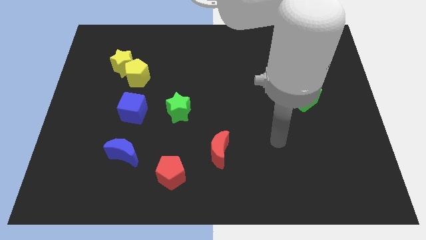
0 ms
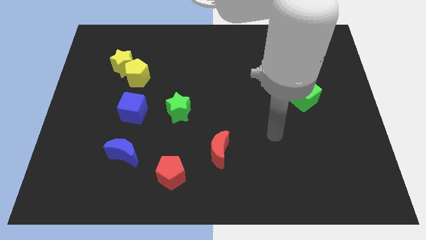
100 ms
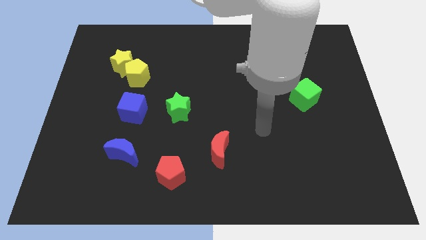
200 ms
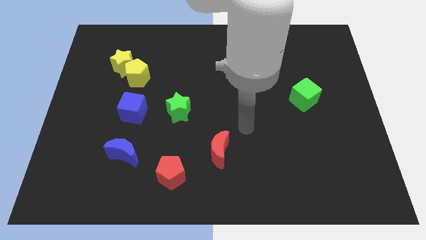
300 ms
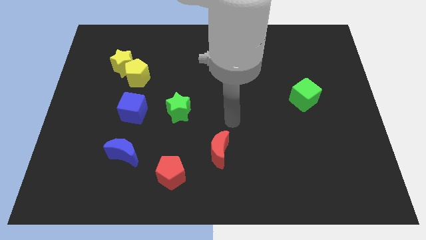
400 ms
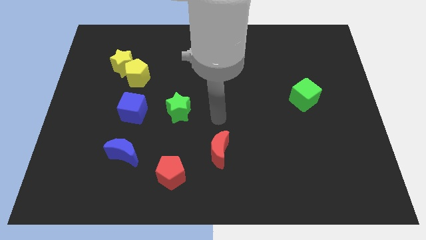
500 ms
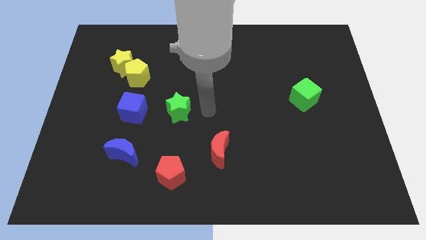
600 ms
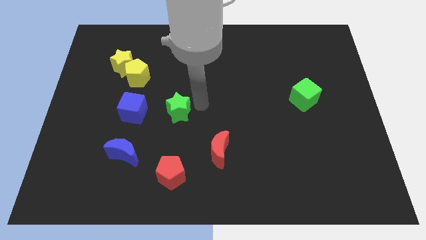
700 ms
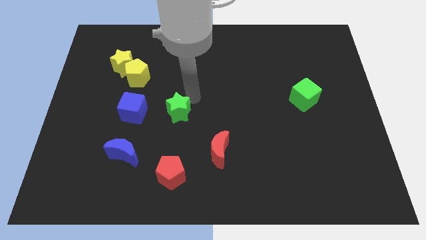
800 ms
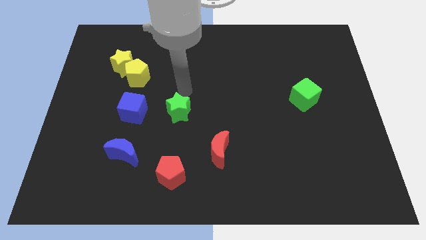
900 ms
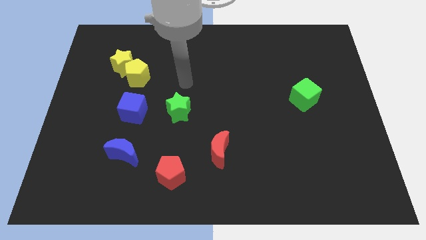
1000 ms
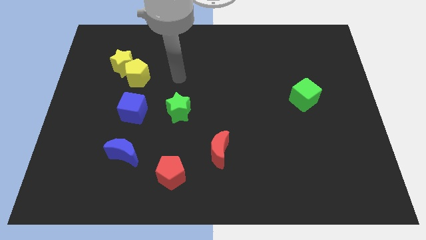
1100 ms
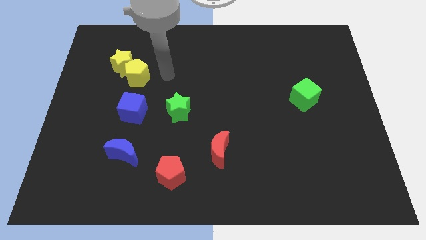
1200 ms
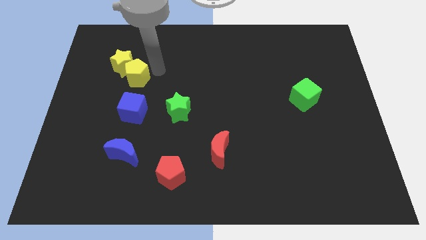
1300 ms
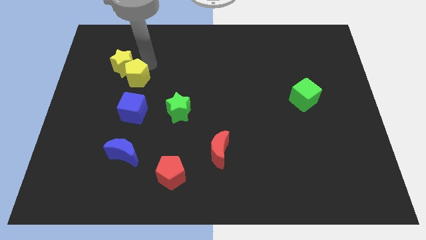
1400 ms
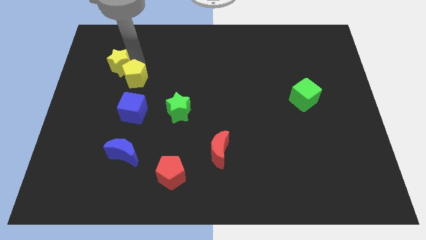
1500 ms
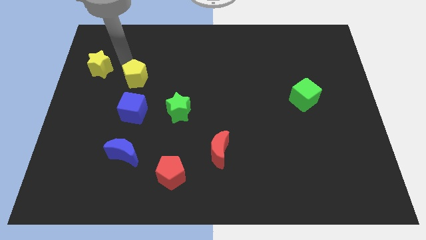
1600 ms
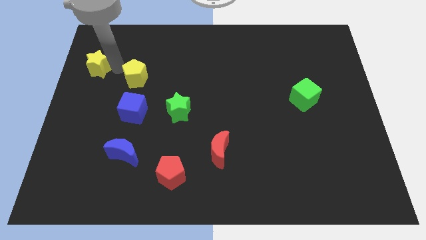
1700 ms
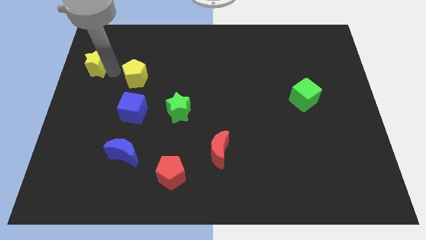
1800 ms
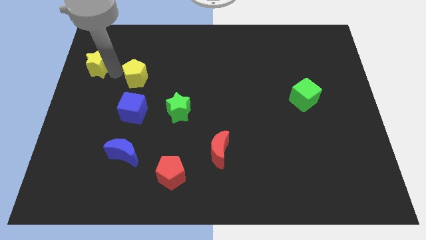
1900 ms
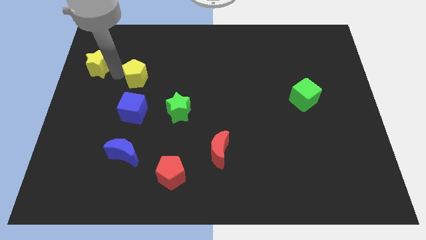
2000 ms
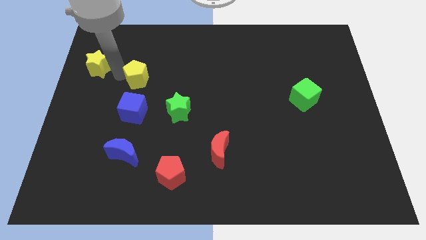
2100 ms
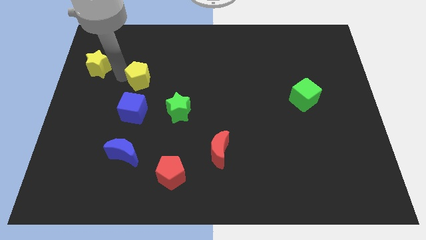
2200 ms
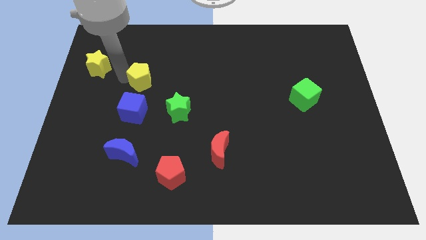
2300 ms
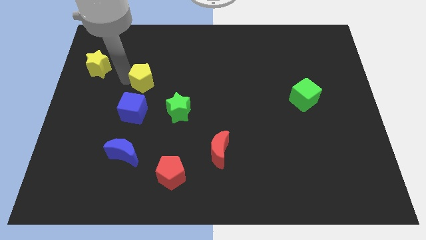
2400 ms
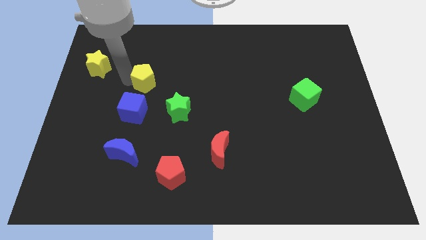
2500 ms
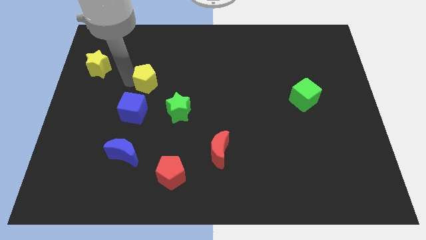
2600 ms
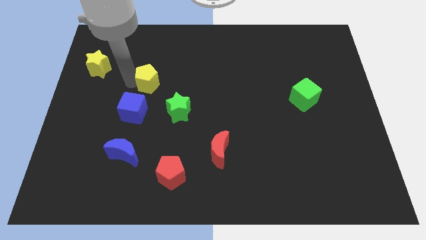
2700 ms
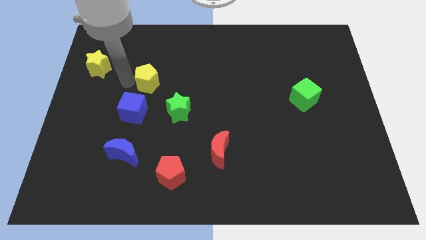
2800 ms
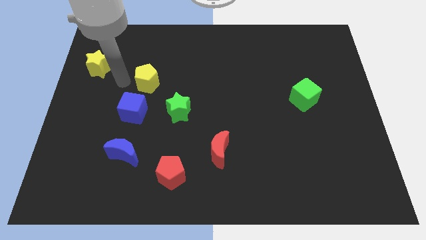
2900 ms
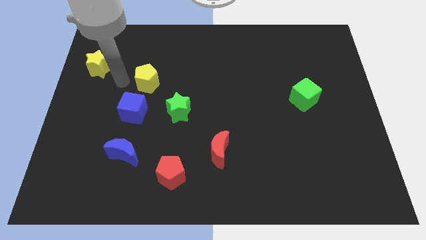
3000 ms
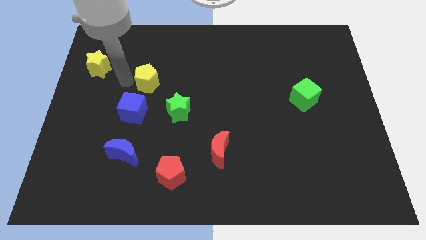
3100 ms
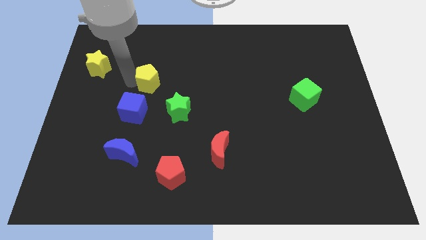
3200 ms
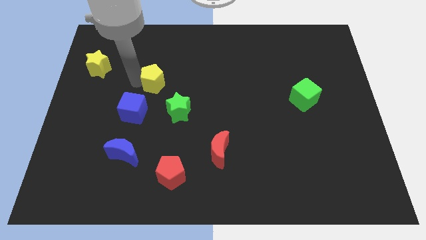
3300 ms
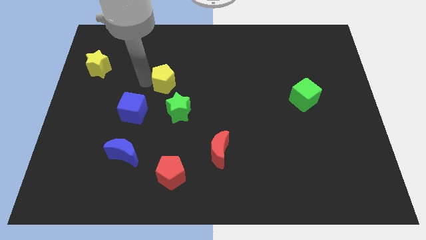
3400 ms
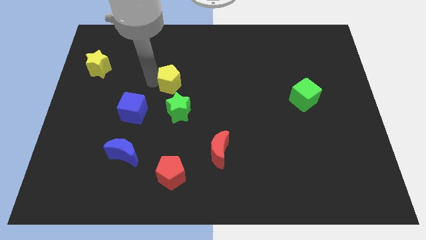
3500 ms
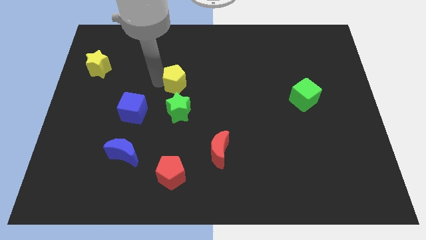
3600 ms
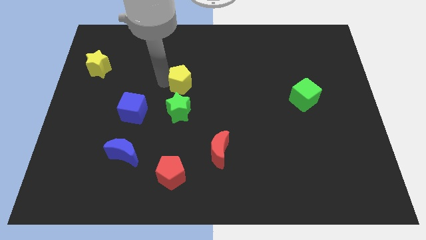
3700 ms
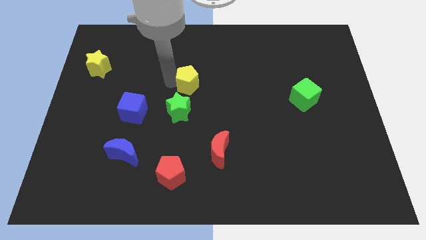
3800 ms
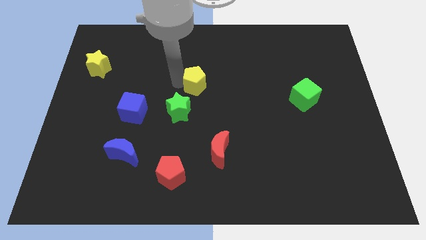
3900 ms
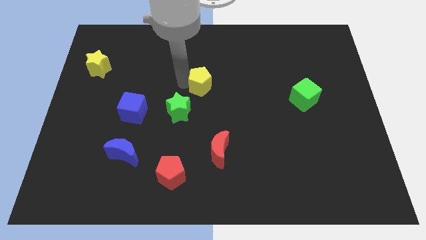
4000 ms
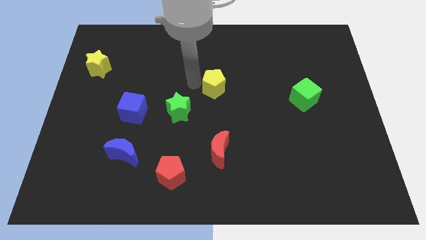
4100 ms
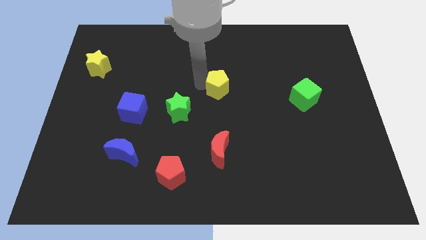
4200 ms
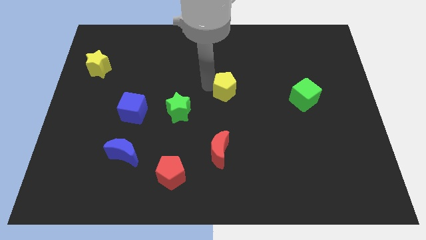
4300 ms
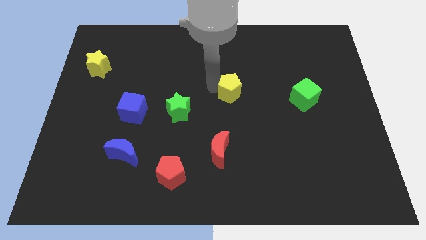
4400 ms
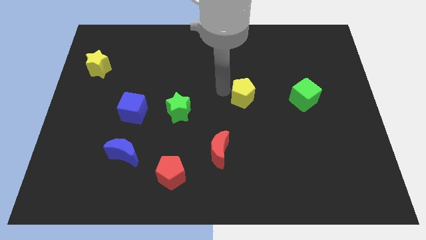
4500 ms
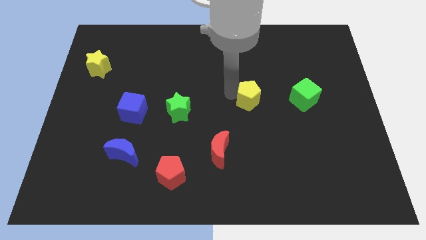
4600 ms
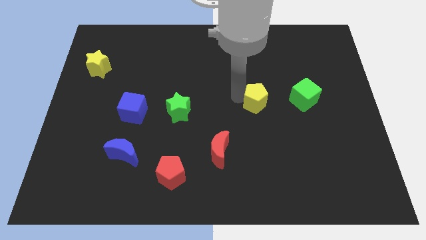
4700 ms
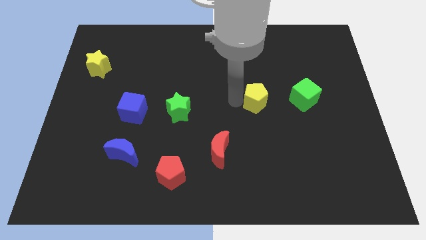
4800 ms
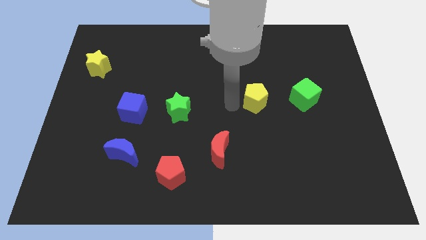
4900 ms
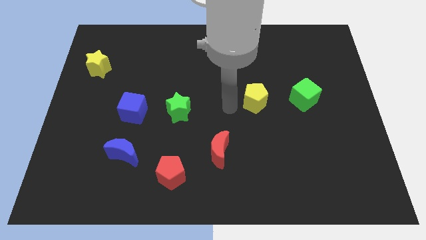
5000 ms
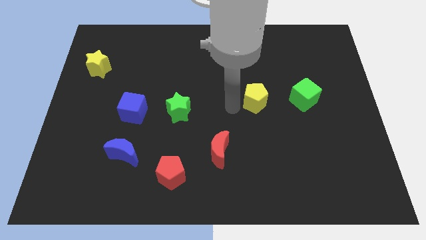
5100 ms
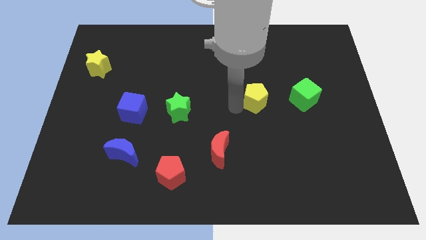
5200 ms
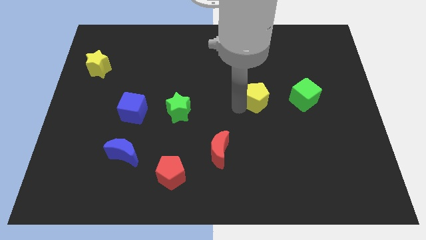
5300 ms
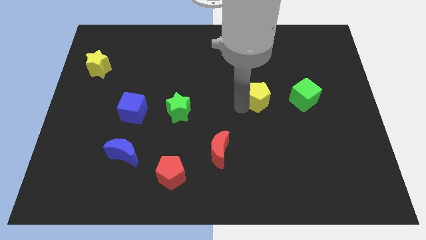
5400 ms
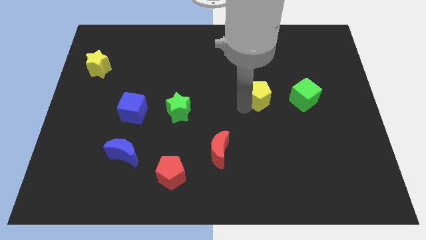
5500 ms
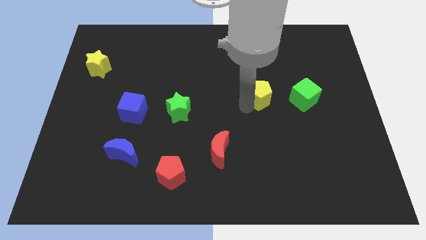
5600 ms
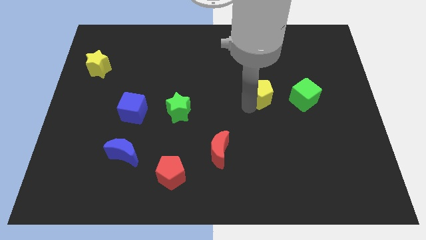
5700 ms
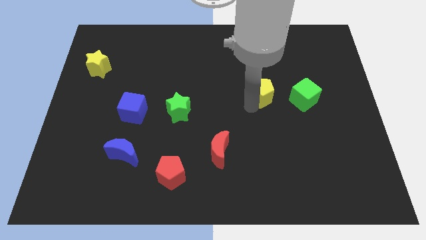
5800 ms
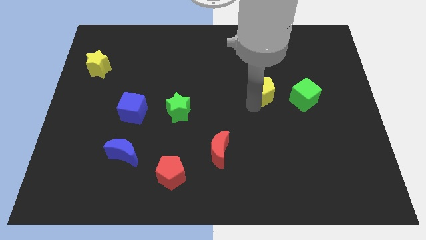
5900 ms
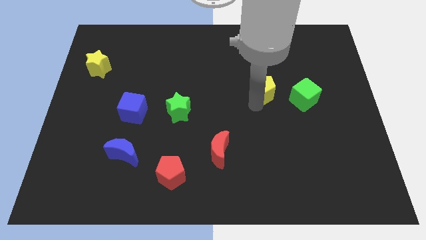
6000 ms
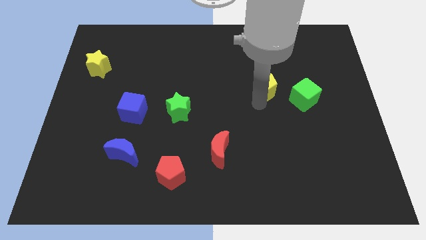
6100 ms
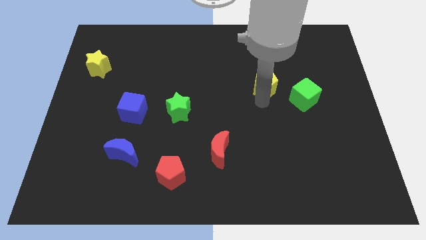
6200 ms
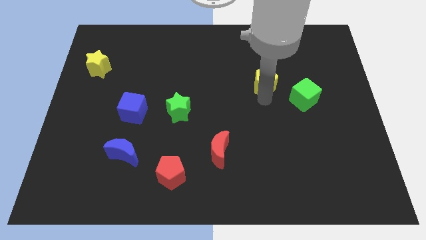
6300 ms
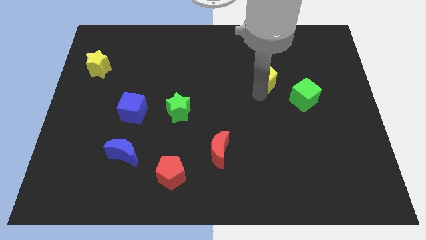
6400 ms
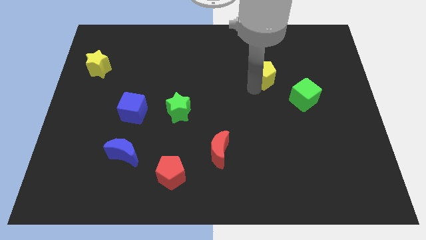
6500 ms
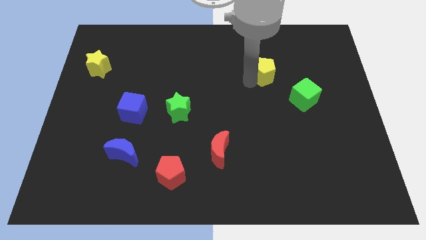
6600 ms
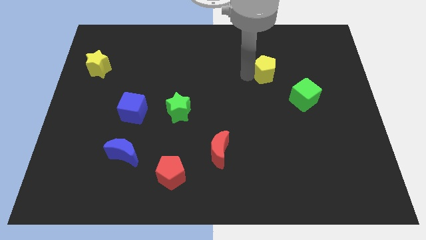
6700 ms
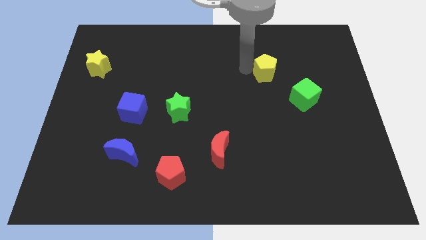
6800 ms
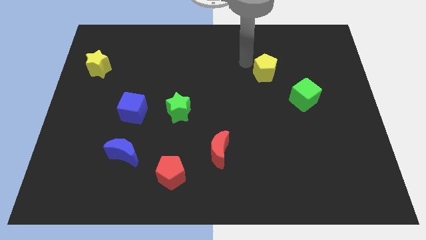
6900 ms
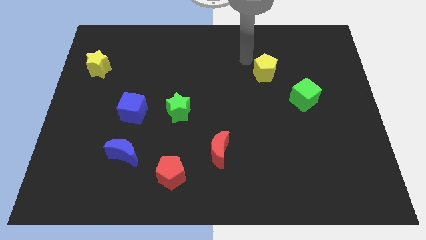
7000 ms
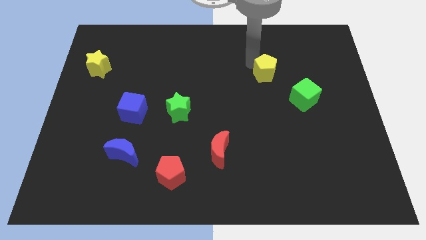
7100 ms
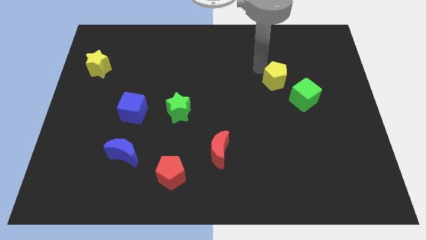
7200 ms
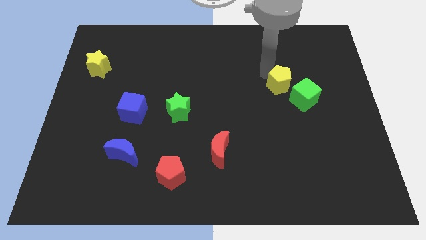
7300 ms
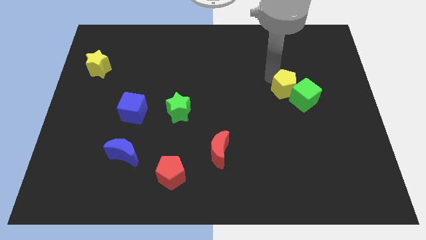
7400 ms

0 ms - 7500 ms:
slide the yellow pentagon towards the green cube
